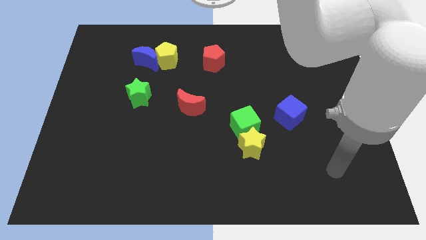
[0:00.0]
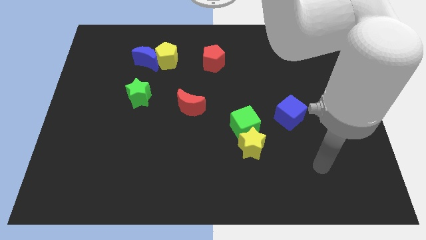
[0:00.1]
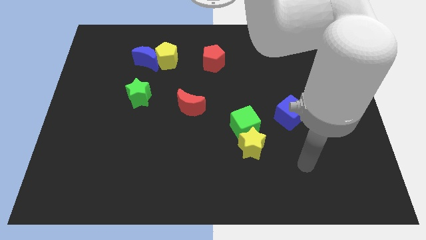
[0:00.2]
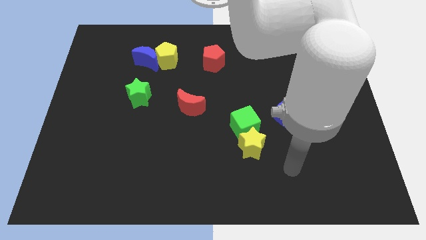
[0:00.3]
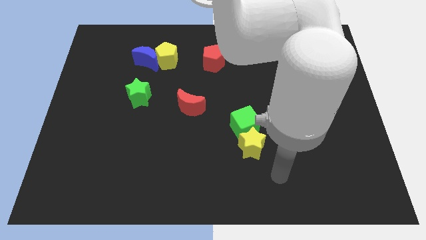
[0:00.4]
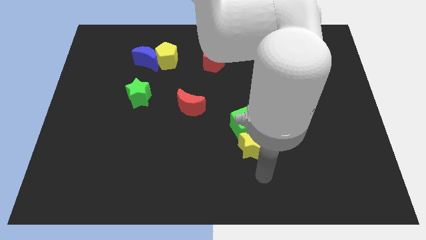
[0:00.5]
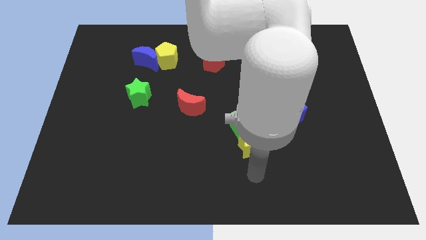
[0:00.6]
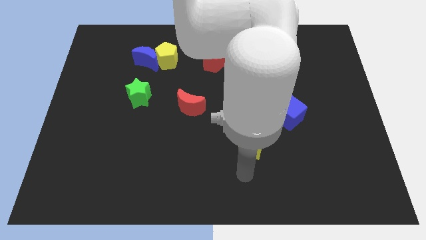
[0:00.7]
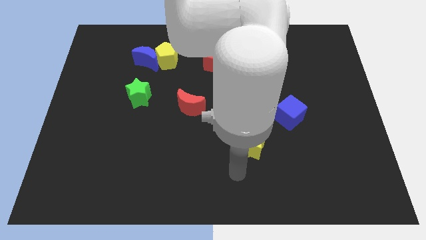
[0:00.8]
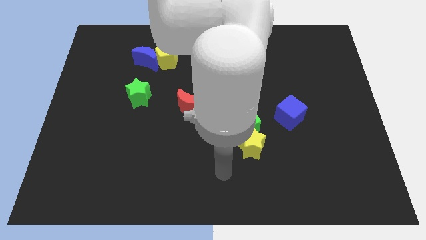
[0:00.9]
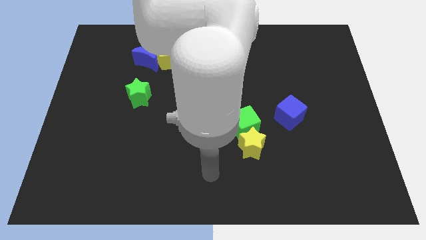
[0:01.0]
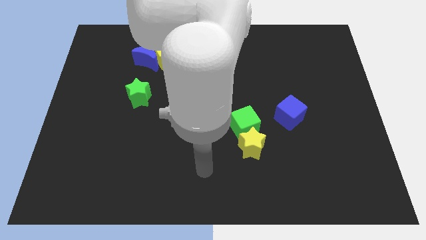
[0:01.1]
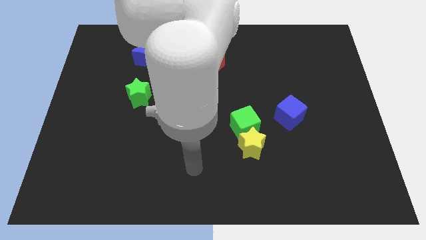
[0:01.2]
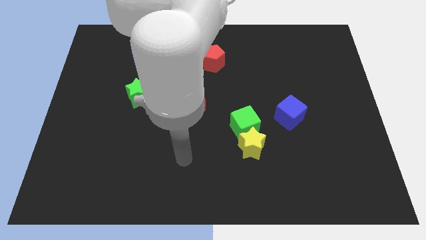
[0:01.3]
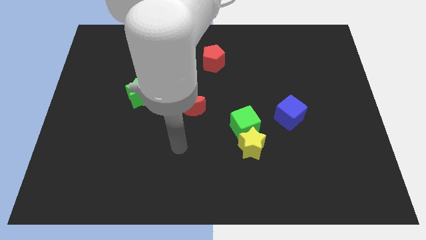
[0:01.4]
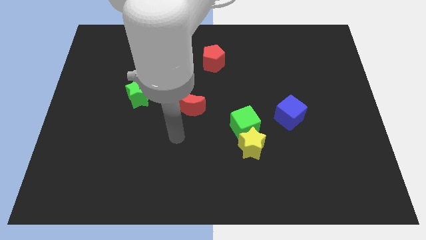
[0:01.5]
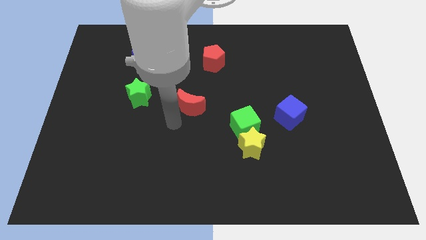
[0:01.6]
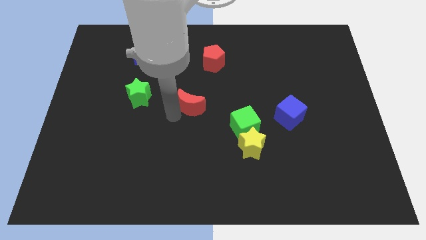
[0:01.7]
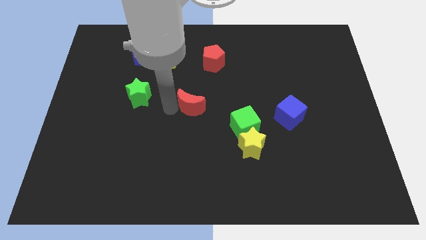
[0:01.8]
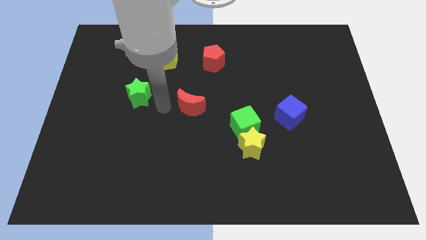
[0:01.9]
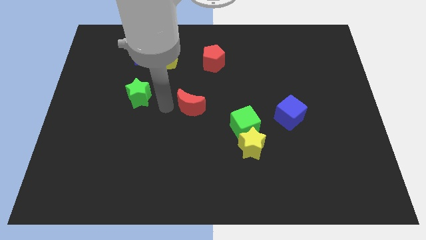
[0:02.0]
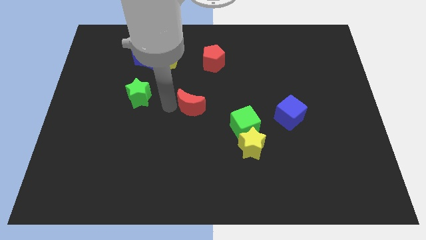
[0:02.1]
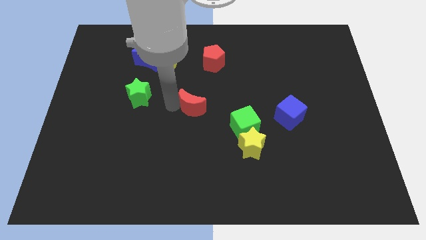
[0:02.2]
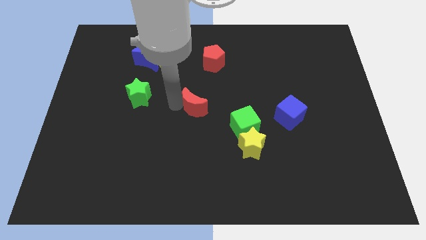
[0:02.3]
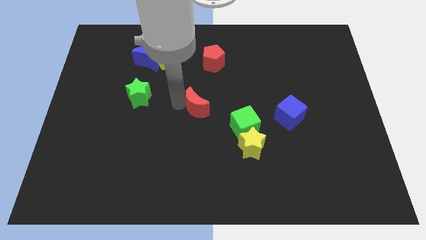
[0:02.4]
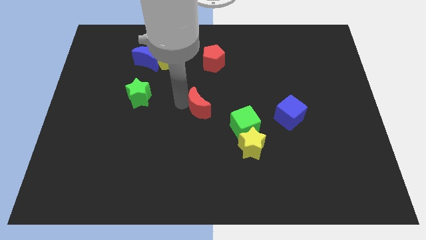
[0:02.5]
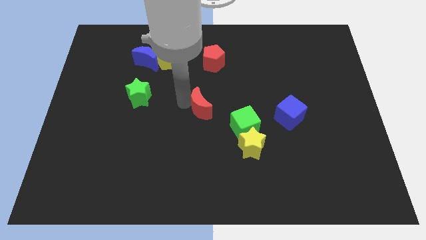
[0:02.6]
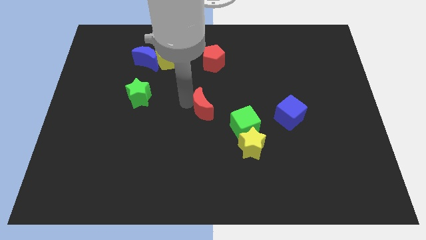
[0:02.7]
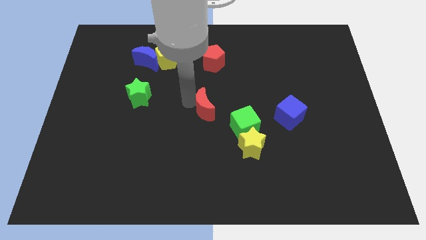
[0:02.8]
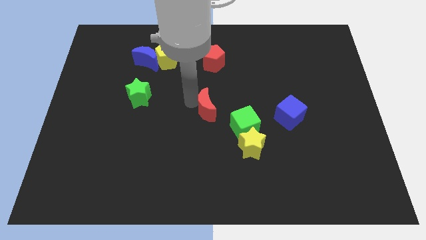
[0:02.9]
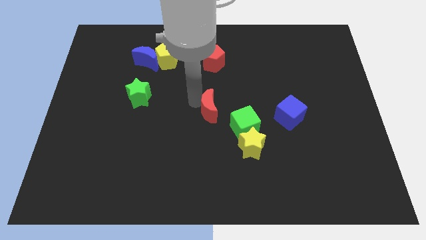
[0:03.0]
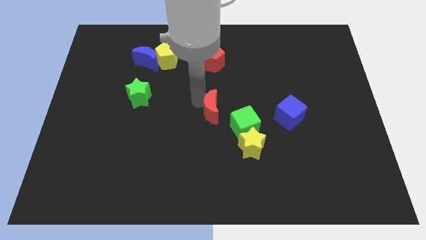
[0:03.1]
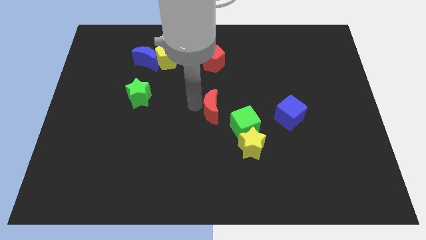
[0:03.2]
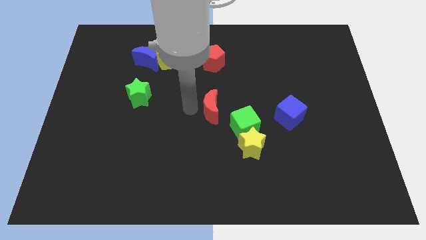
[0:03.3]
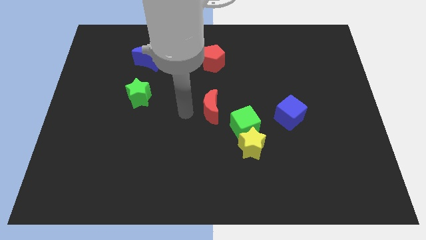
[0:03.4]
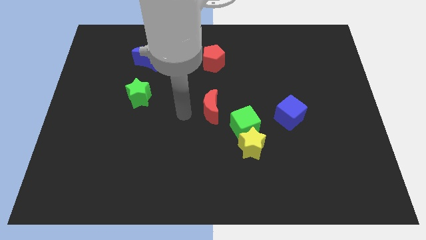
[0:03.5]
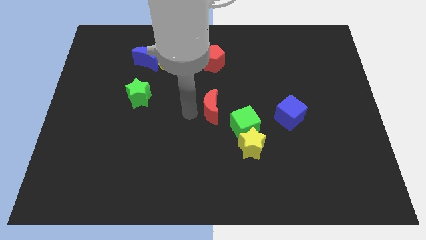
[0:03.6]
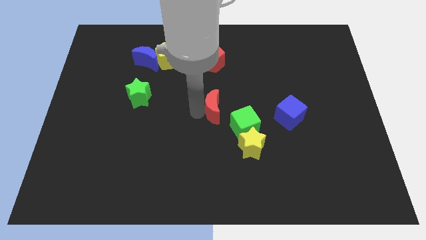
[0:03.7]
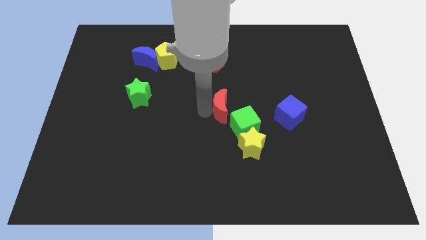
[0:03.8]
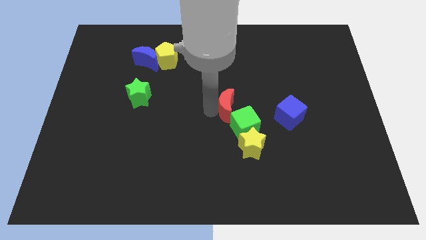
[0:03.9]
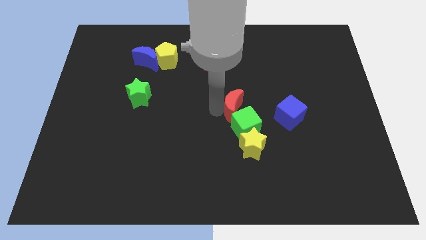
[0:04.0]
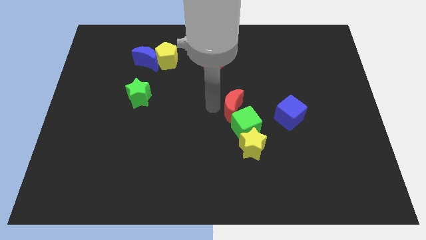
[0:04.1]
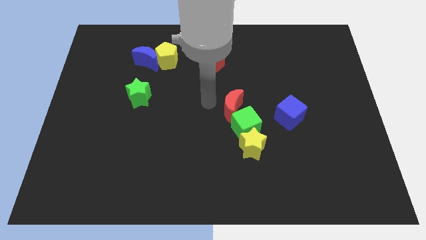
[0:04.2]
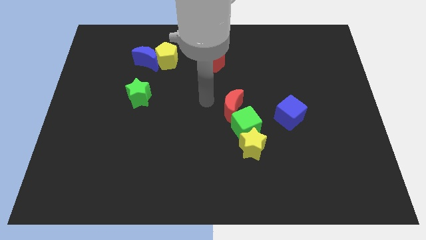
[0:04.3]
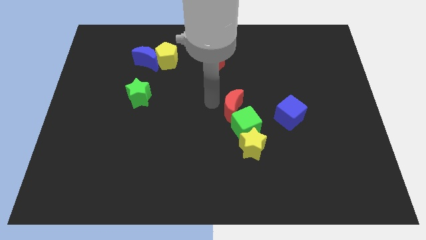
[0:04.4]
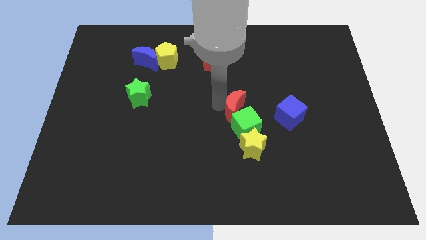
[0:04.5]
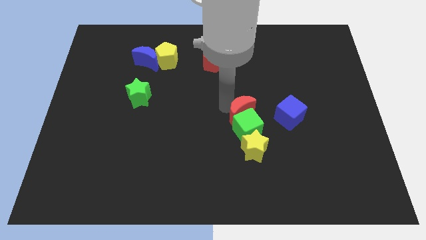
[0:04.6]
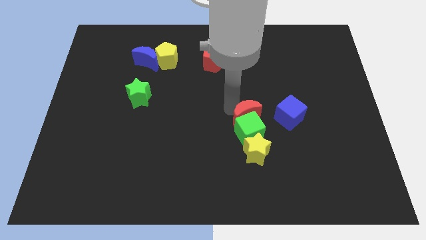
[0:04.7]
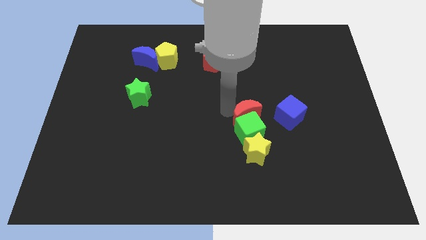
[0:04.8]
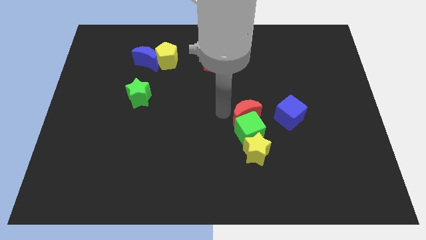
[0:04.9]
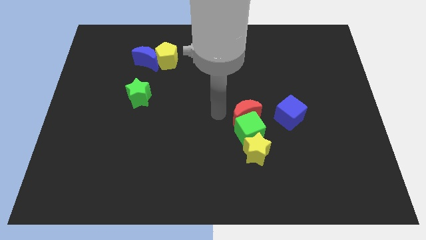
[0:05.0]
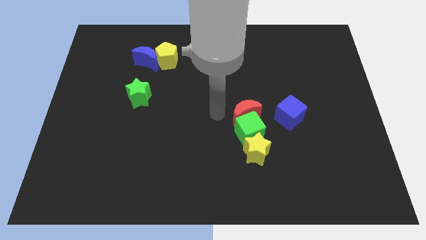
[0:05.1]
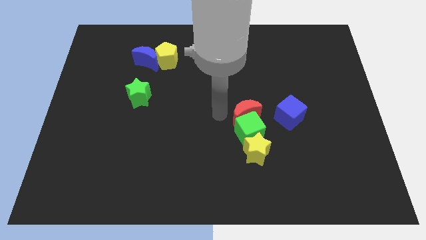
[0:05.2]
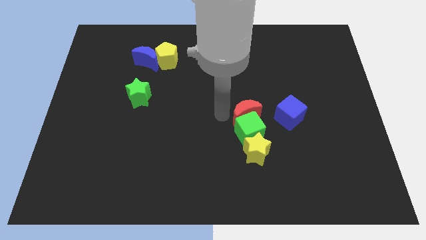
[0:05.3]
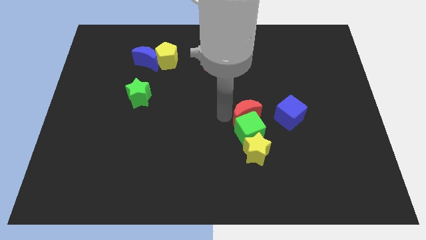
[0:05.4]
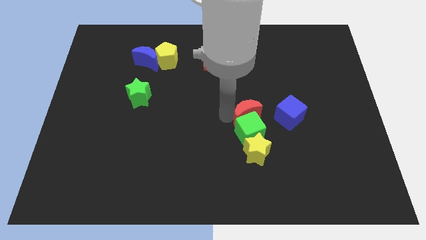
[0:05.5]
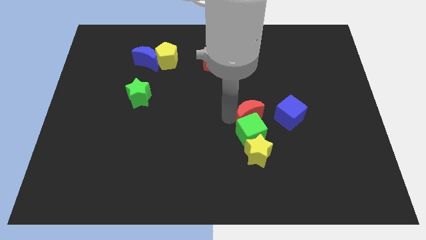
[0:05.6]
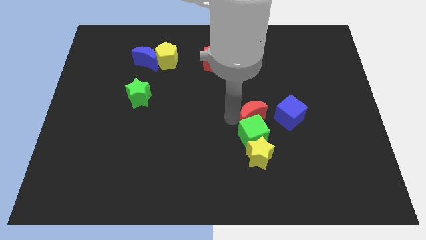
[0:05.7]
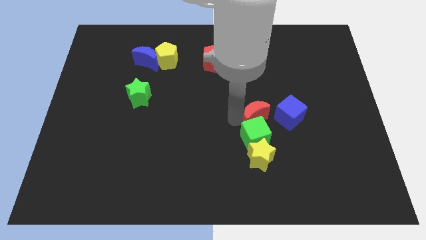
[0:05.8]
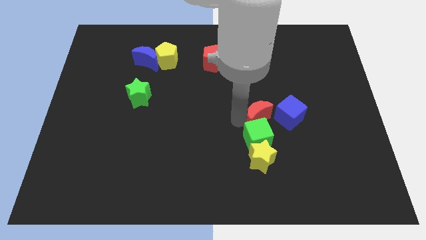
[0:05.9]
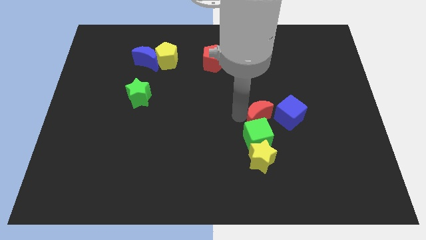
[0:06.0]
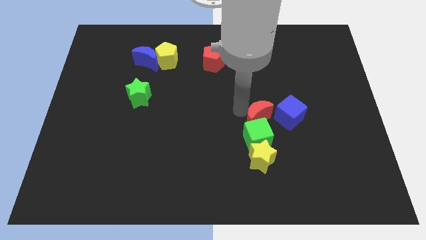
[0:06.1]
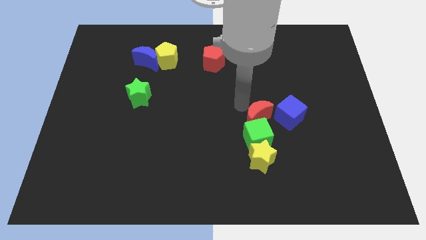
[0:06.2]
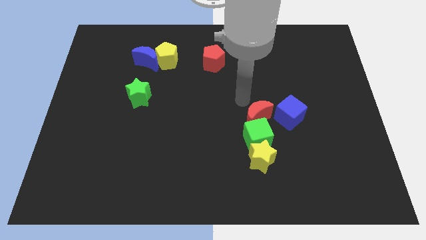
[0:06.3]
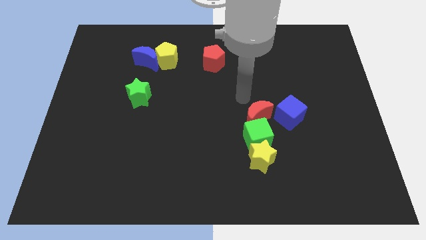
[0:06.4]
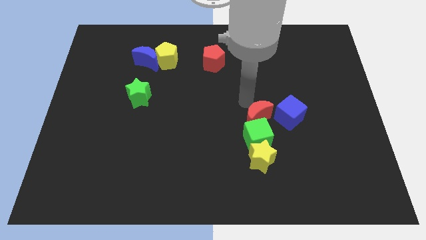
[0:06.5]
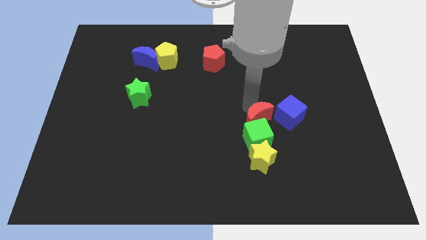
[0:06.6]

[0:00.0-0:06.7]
push the red moon diagonally down and to the left of the blue cube
